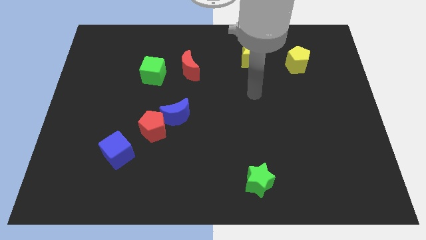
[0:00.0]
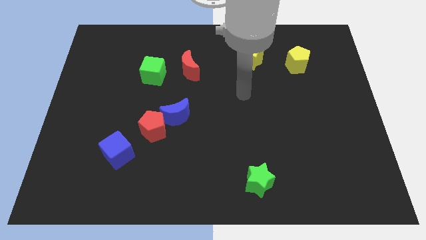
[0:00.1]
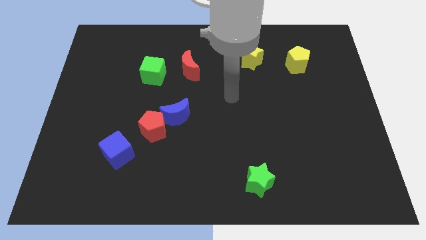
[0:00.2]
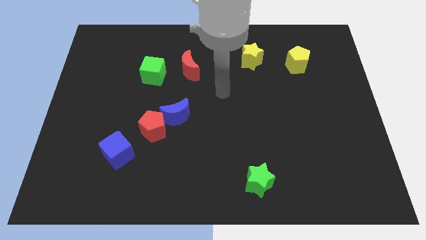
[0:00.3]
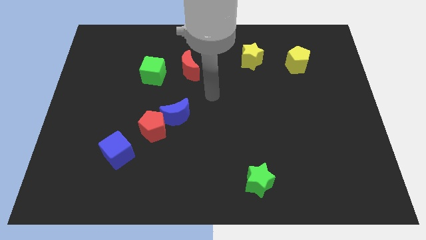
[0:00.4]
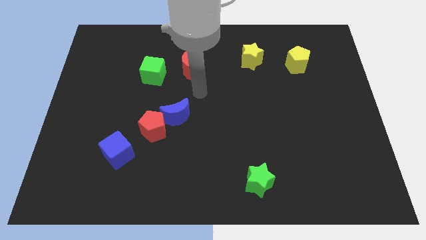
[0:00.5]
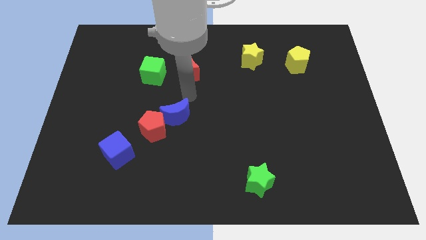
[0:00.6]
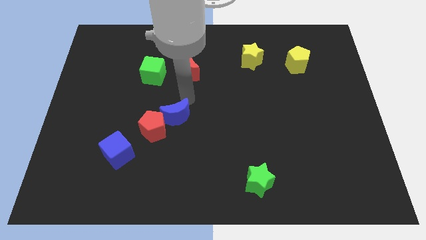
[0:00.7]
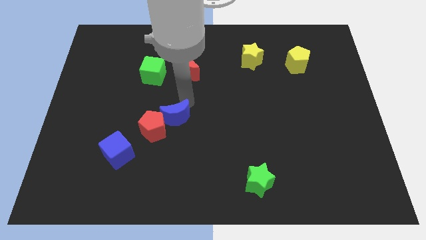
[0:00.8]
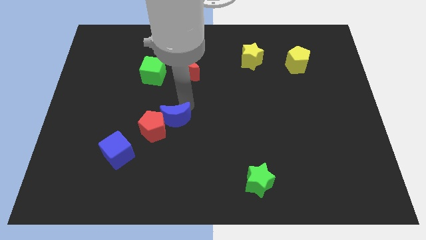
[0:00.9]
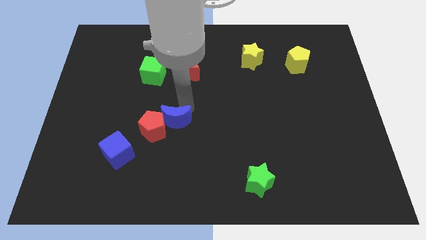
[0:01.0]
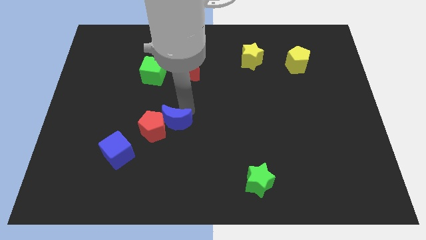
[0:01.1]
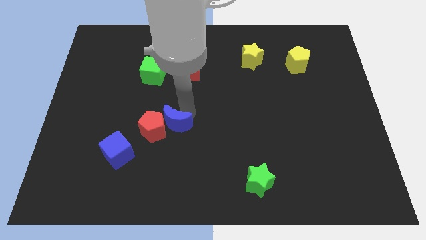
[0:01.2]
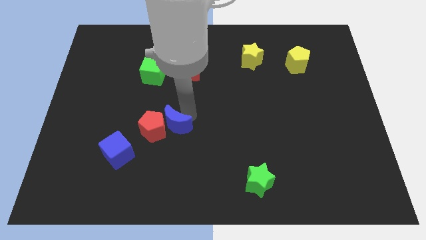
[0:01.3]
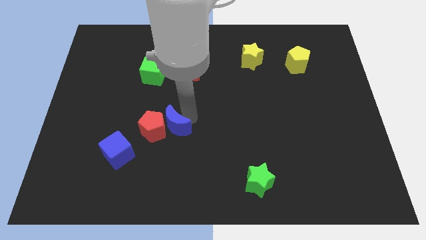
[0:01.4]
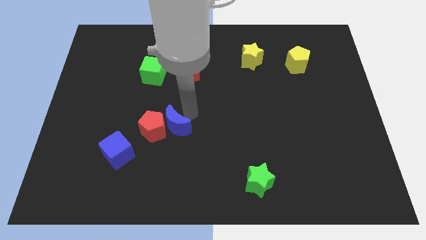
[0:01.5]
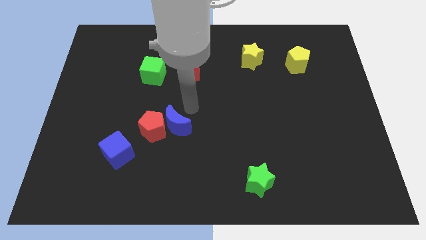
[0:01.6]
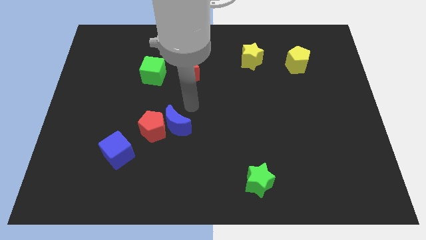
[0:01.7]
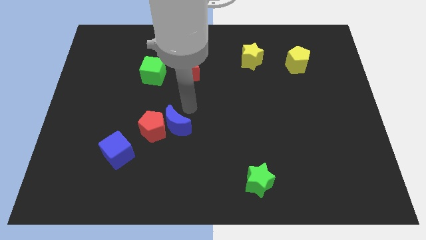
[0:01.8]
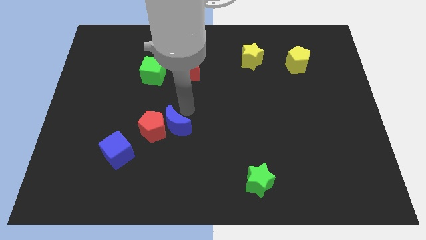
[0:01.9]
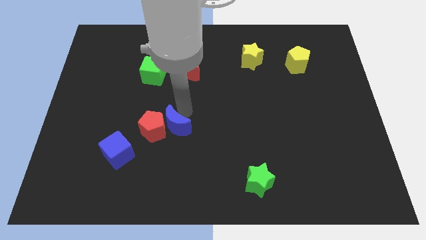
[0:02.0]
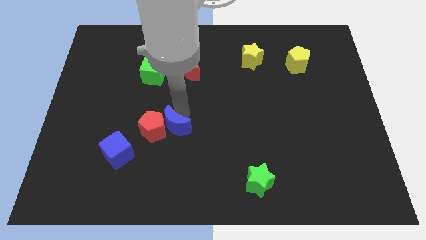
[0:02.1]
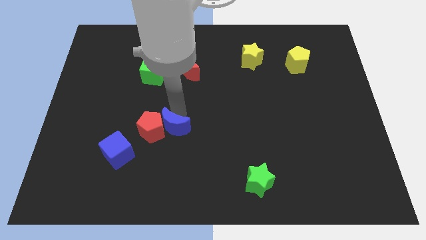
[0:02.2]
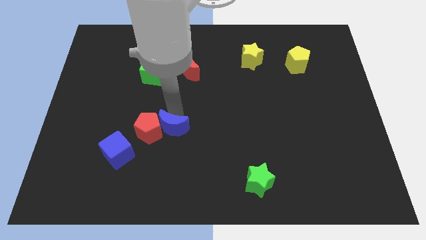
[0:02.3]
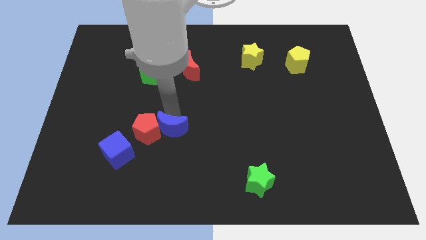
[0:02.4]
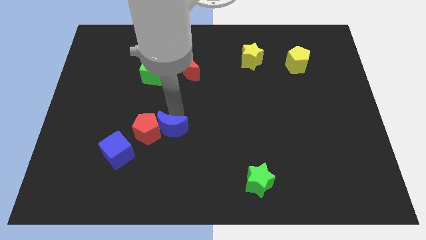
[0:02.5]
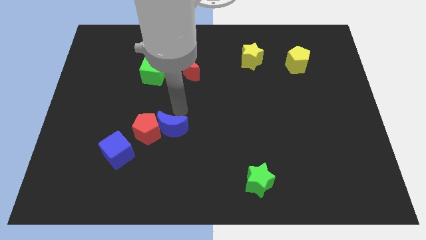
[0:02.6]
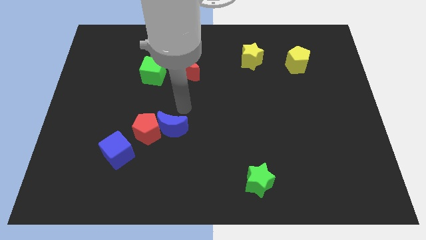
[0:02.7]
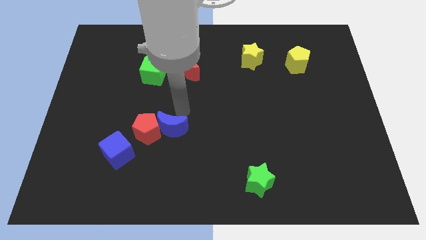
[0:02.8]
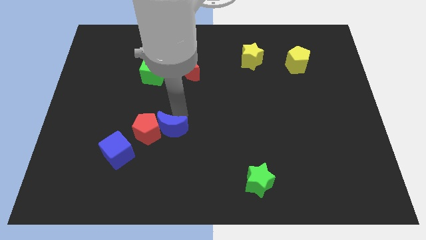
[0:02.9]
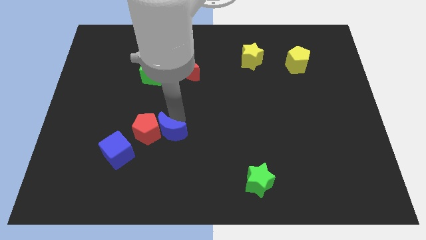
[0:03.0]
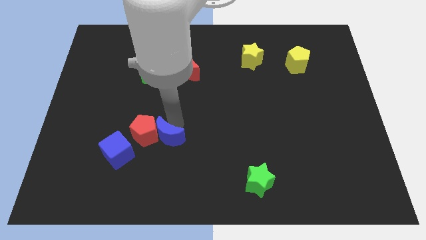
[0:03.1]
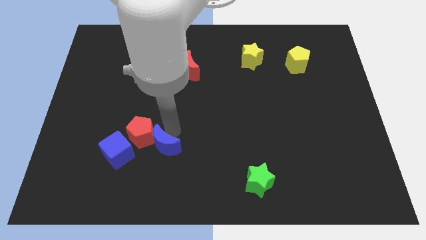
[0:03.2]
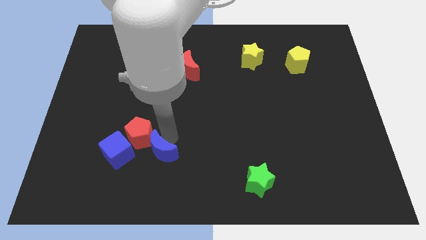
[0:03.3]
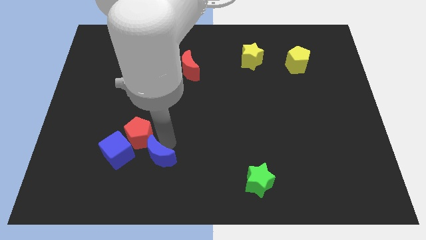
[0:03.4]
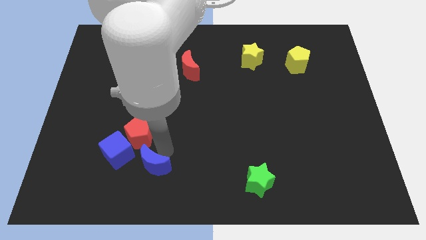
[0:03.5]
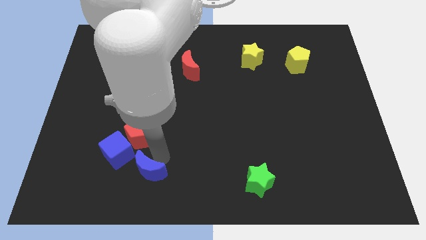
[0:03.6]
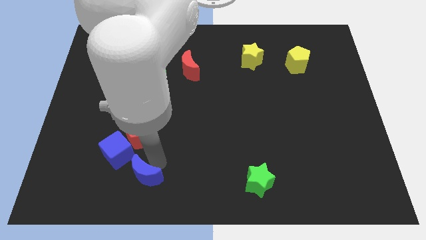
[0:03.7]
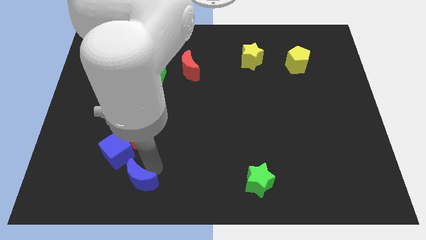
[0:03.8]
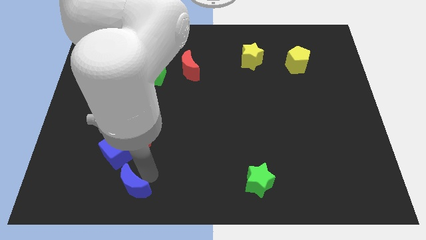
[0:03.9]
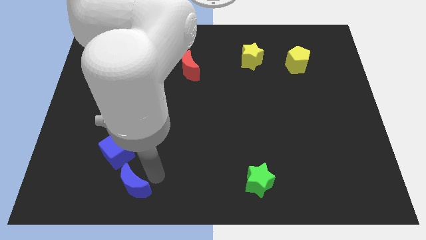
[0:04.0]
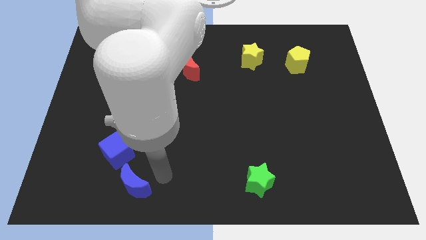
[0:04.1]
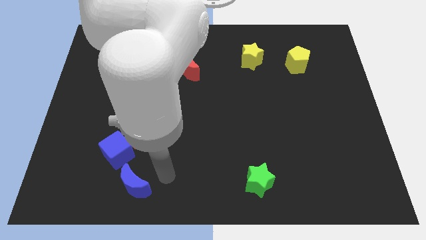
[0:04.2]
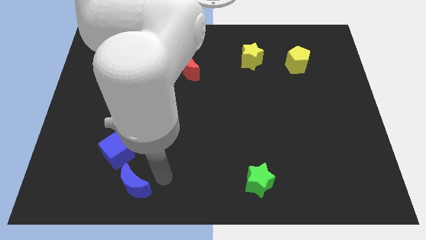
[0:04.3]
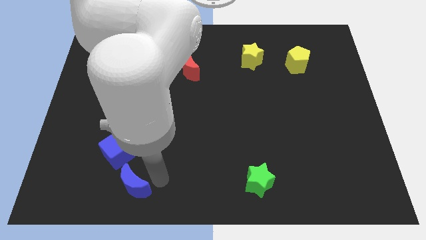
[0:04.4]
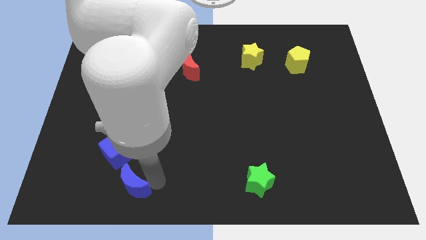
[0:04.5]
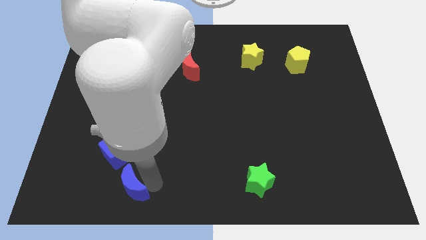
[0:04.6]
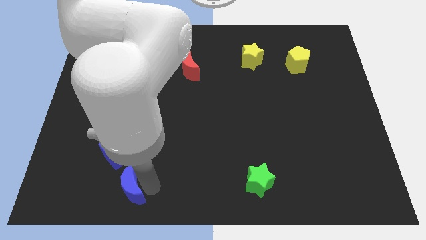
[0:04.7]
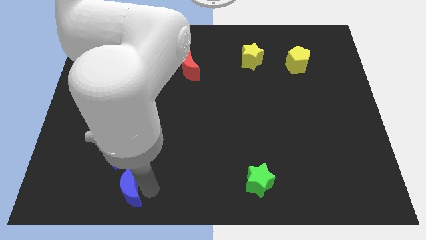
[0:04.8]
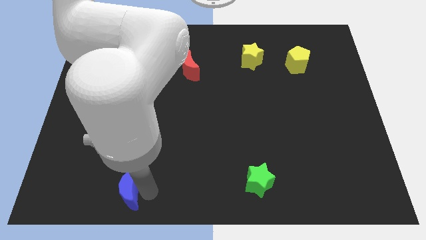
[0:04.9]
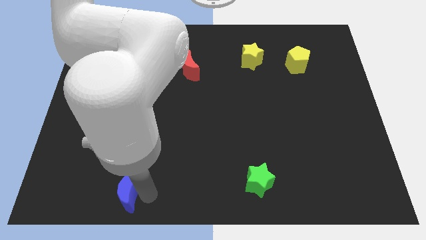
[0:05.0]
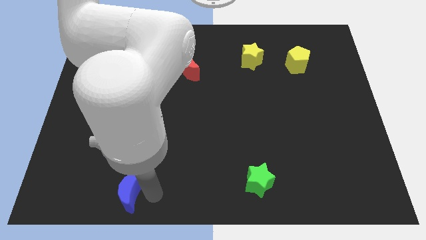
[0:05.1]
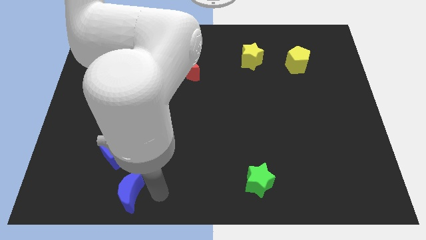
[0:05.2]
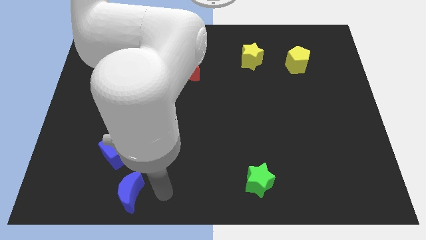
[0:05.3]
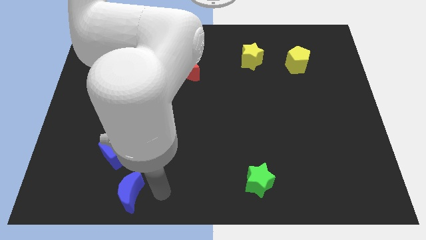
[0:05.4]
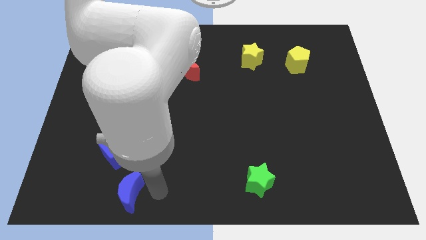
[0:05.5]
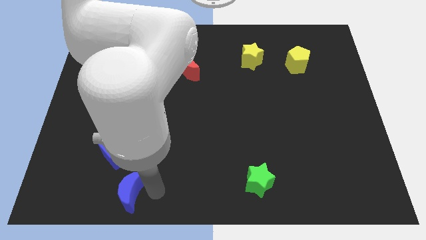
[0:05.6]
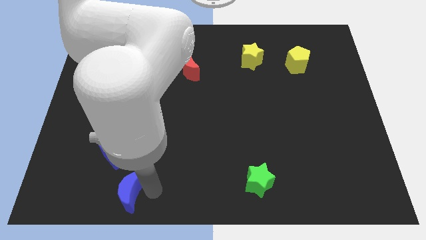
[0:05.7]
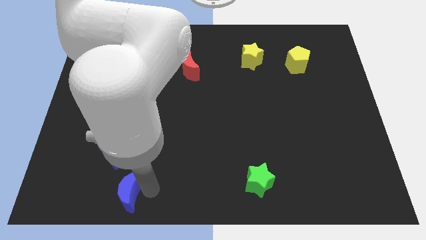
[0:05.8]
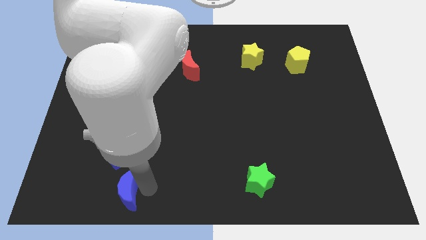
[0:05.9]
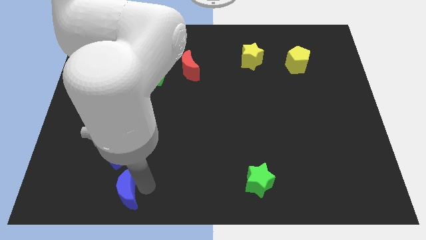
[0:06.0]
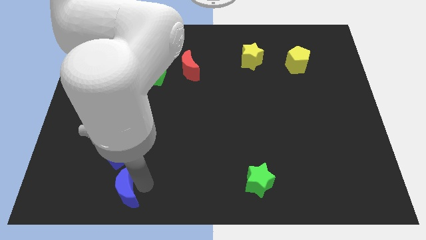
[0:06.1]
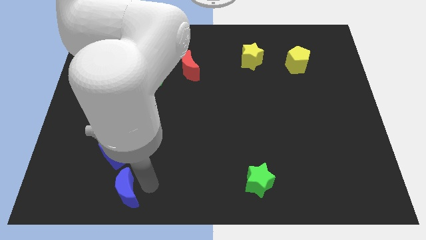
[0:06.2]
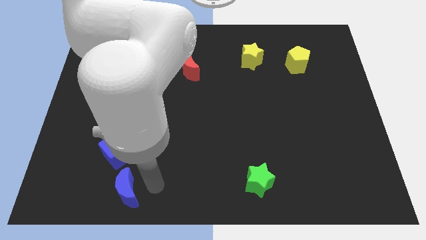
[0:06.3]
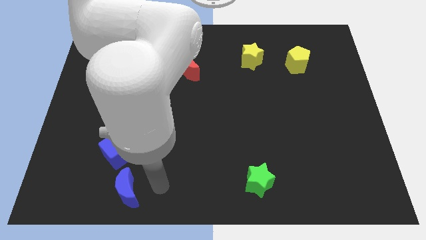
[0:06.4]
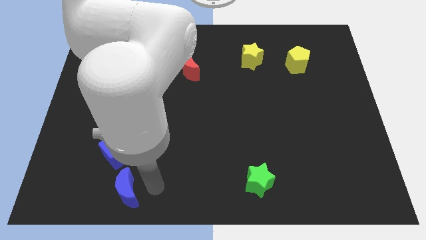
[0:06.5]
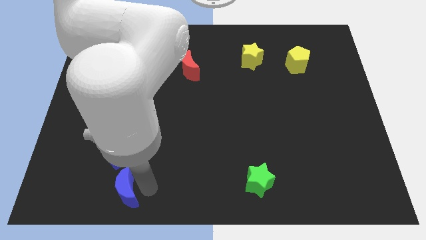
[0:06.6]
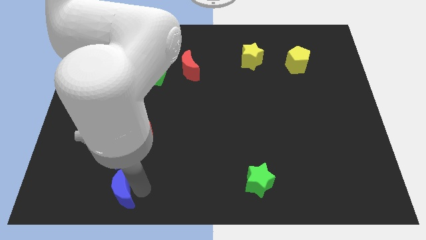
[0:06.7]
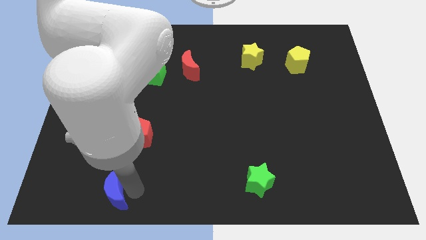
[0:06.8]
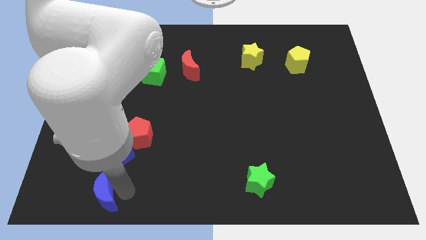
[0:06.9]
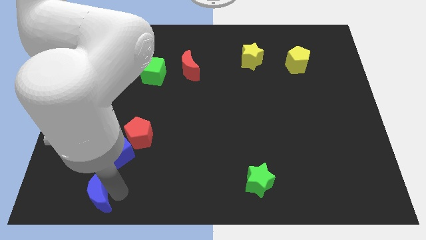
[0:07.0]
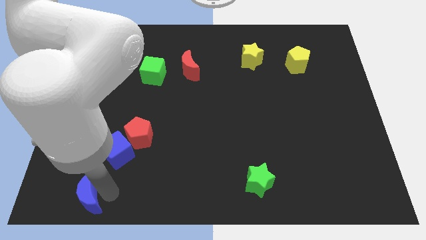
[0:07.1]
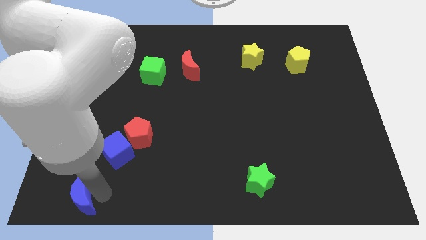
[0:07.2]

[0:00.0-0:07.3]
put the blue moon to the bottom left corner

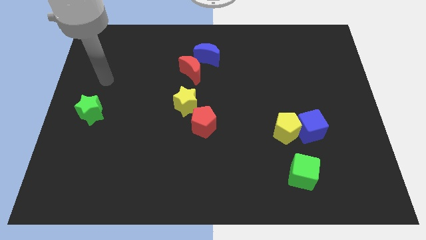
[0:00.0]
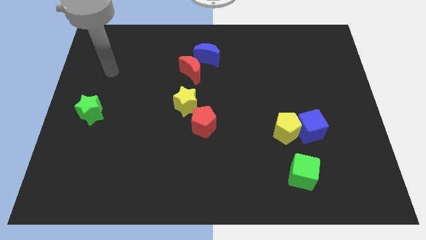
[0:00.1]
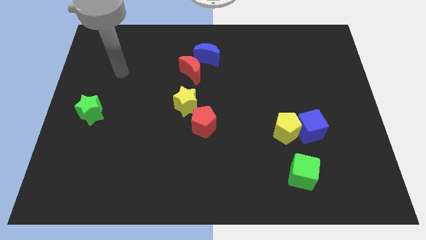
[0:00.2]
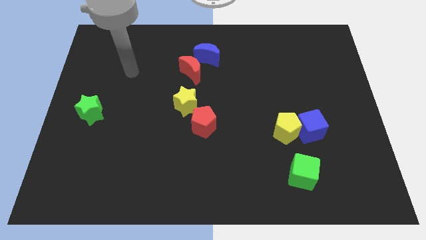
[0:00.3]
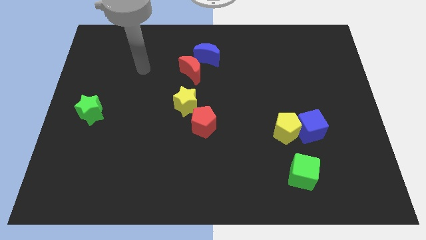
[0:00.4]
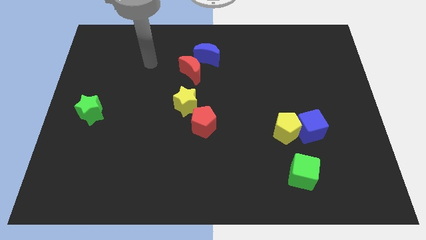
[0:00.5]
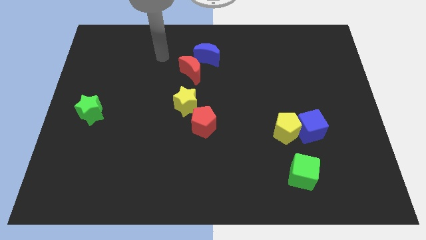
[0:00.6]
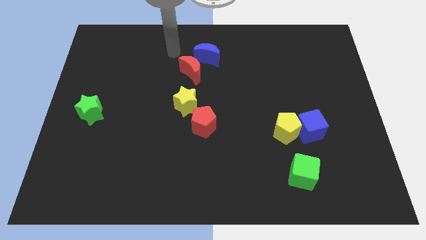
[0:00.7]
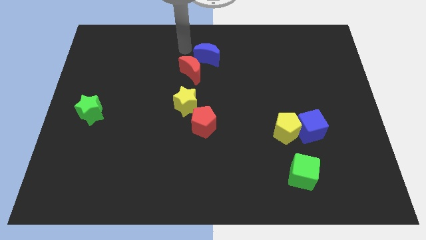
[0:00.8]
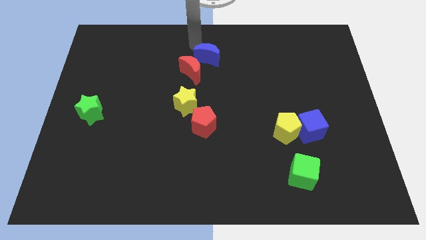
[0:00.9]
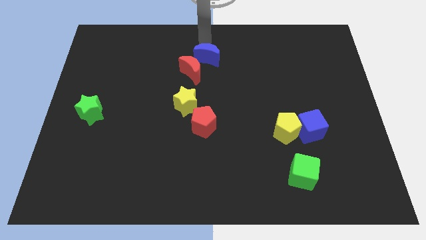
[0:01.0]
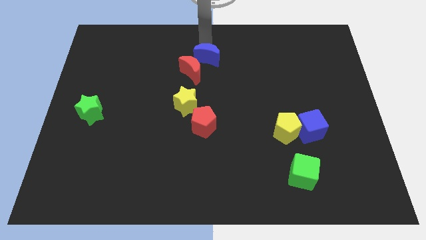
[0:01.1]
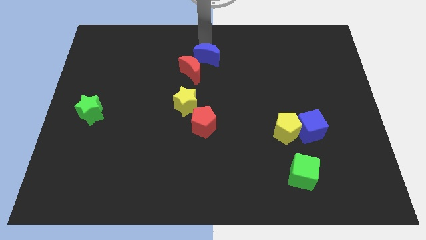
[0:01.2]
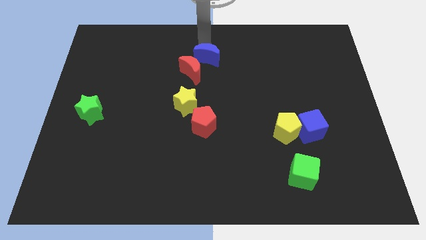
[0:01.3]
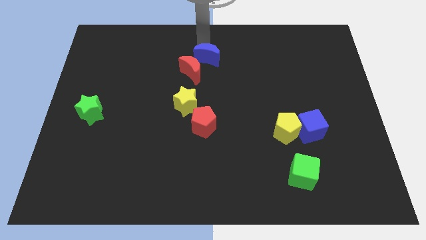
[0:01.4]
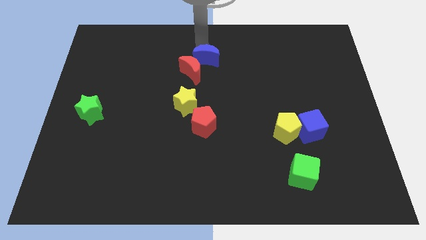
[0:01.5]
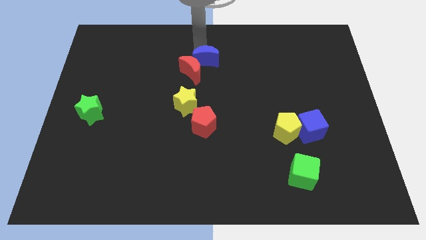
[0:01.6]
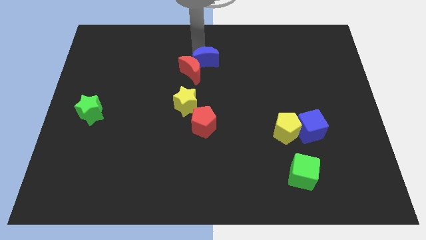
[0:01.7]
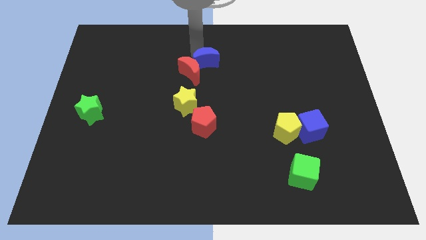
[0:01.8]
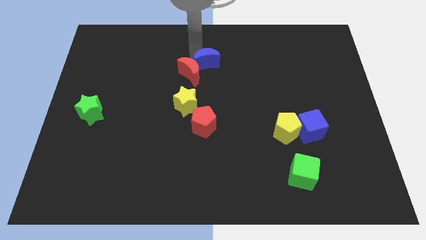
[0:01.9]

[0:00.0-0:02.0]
push the blue moon to the center
